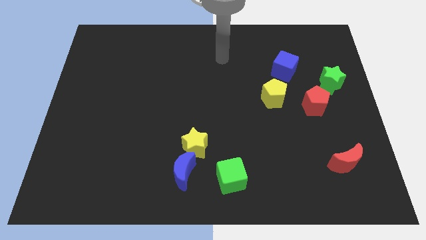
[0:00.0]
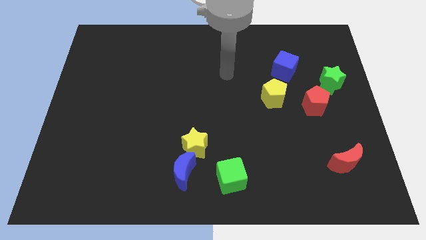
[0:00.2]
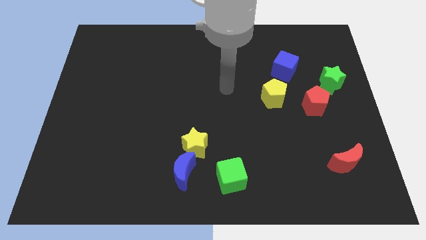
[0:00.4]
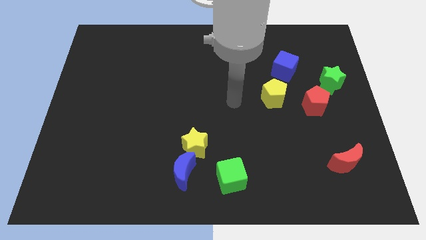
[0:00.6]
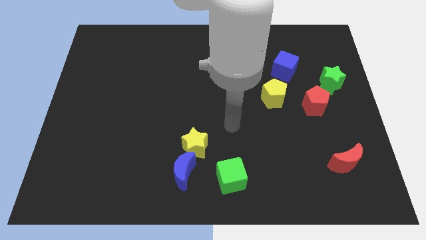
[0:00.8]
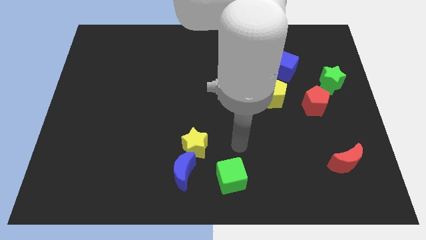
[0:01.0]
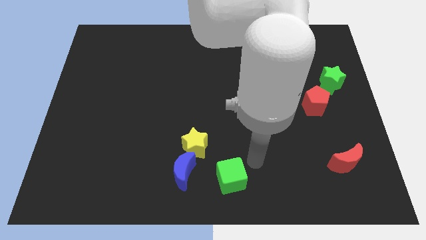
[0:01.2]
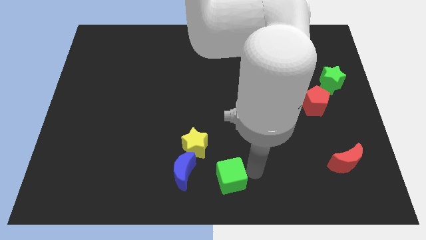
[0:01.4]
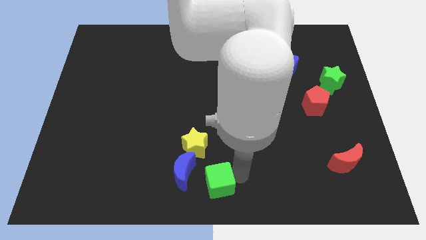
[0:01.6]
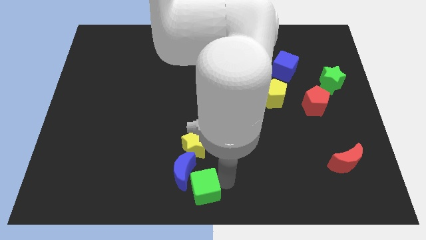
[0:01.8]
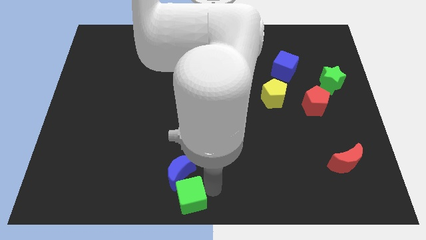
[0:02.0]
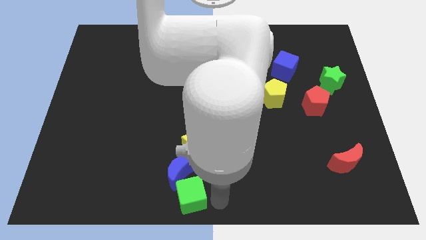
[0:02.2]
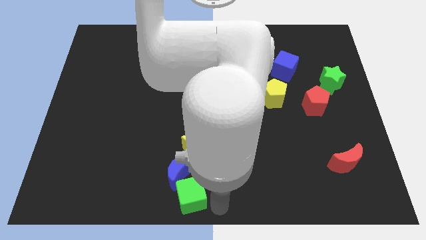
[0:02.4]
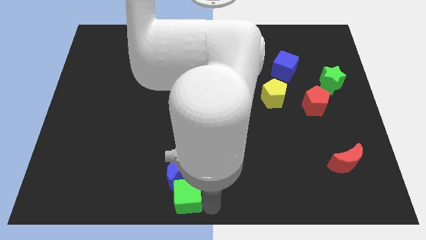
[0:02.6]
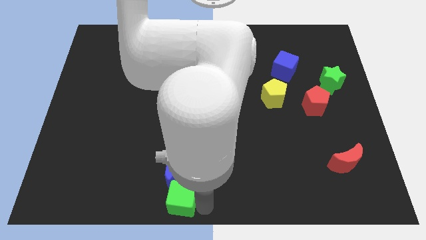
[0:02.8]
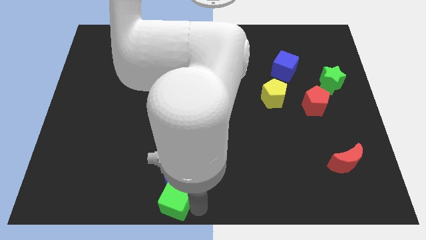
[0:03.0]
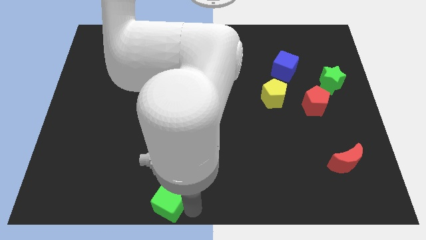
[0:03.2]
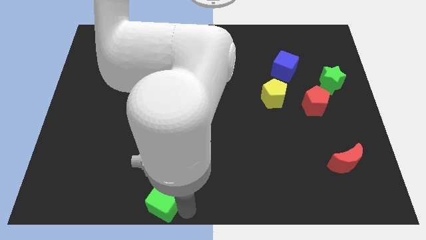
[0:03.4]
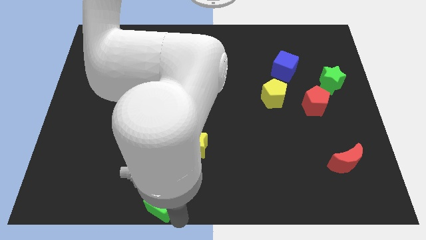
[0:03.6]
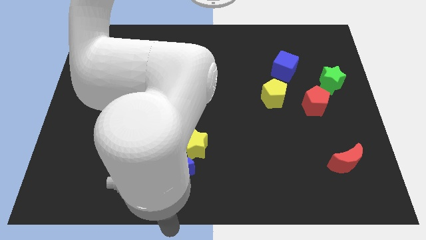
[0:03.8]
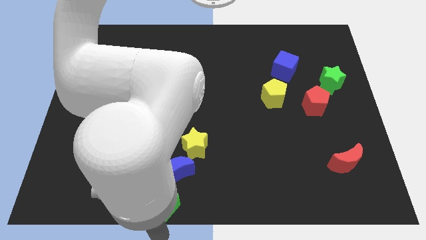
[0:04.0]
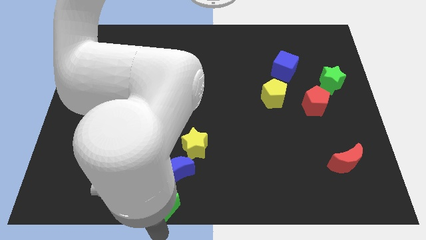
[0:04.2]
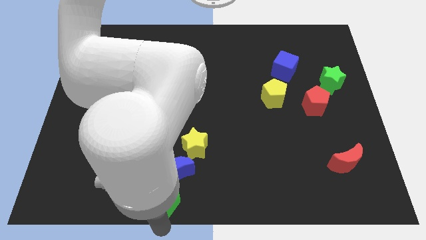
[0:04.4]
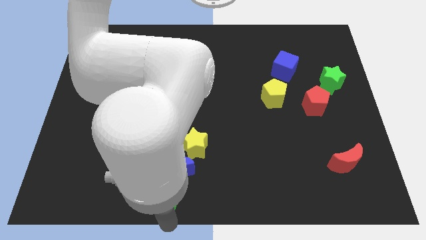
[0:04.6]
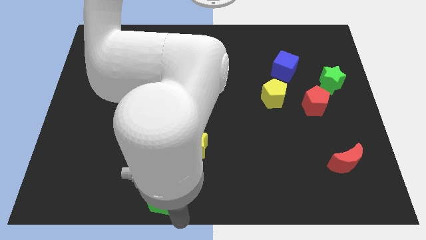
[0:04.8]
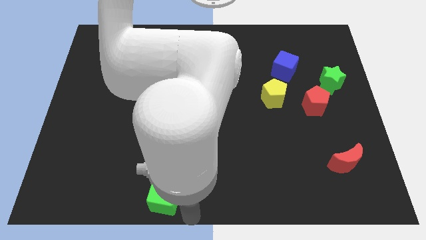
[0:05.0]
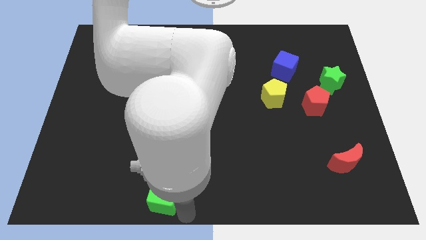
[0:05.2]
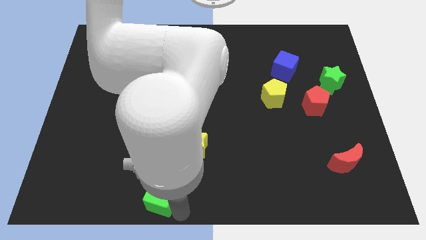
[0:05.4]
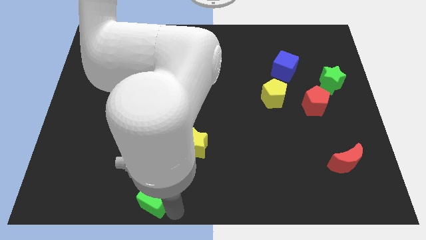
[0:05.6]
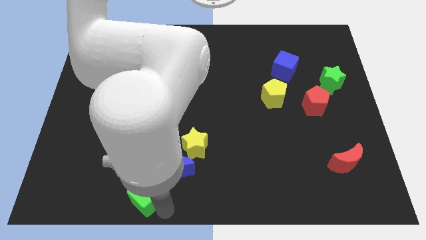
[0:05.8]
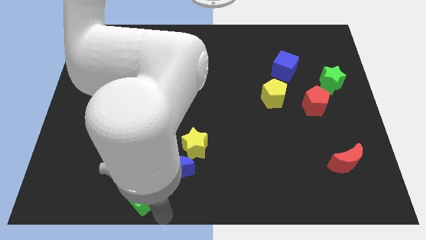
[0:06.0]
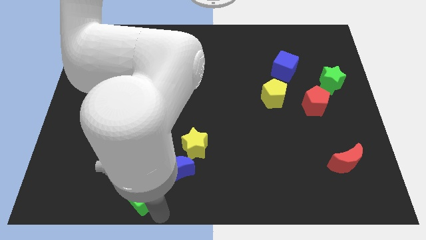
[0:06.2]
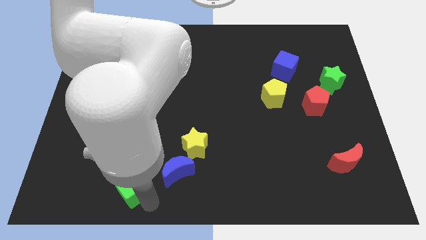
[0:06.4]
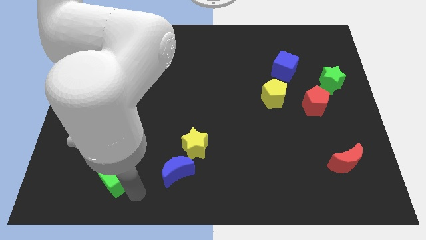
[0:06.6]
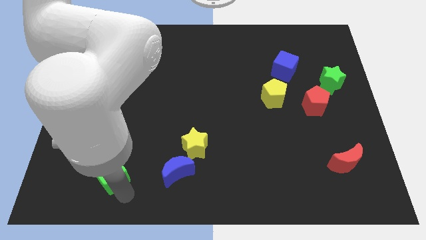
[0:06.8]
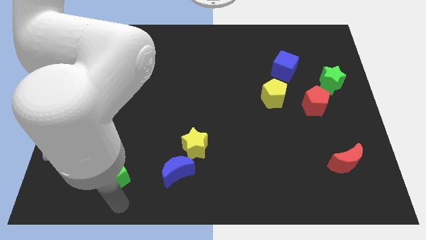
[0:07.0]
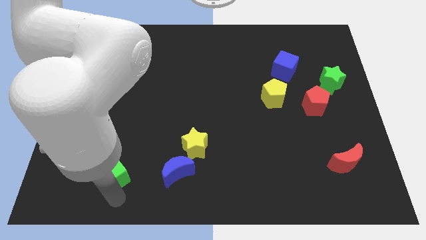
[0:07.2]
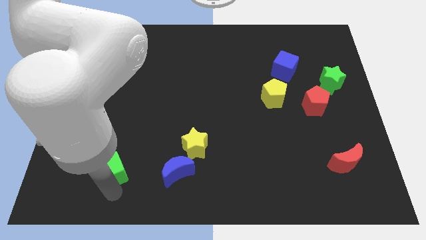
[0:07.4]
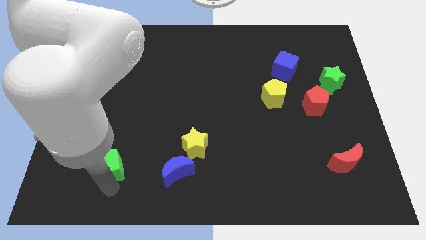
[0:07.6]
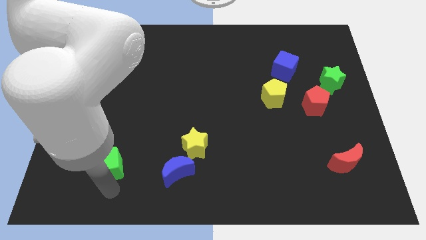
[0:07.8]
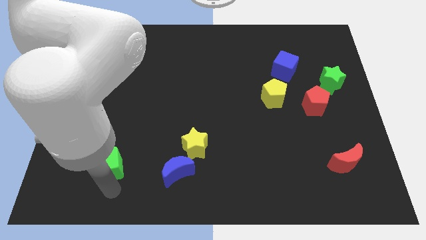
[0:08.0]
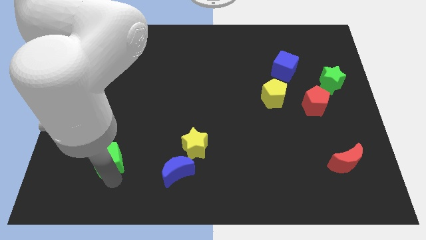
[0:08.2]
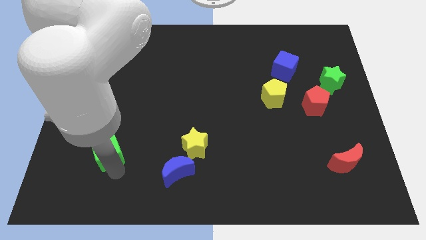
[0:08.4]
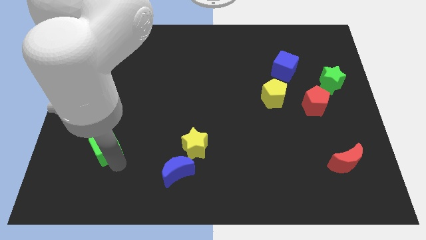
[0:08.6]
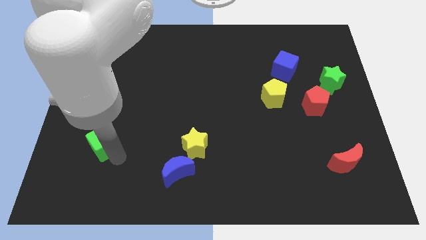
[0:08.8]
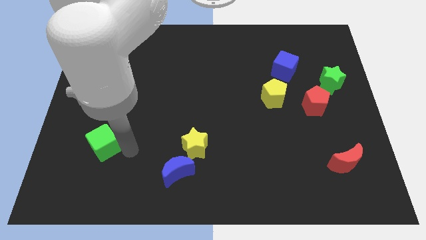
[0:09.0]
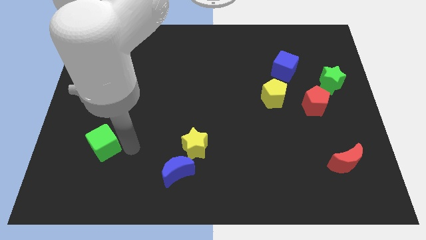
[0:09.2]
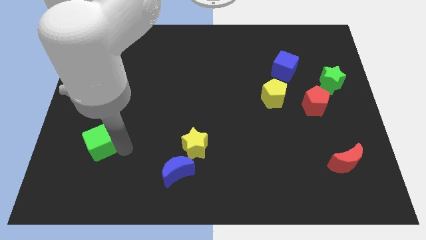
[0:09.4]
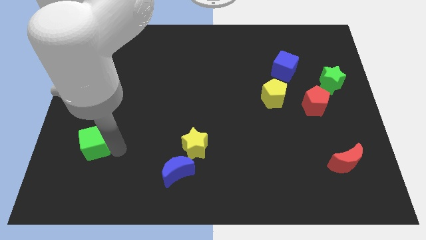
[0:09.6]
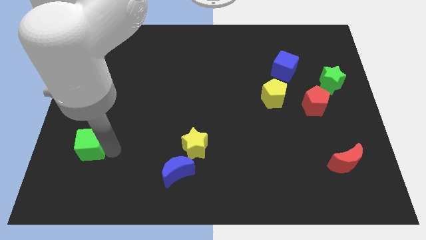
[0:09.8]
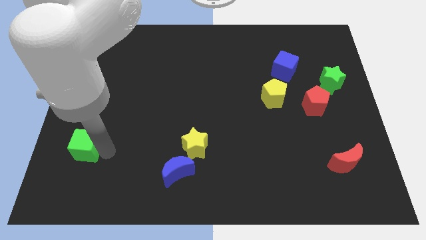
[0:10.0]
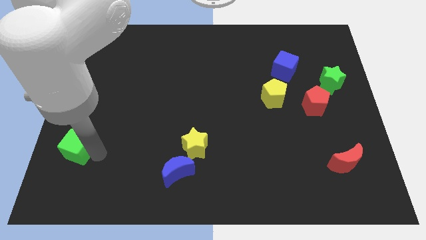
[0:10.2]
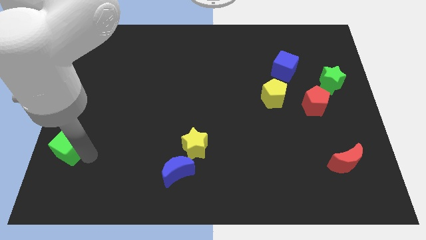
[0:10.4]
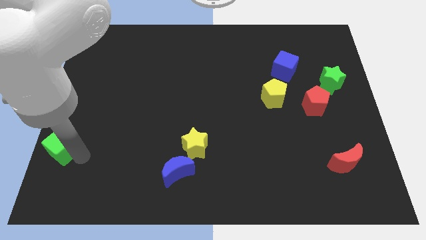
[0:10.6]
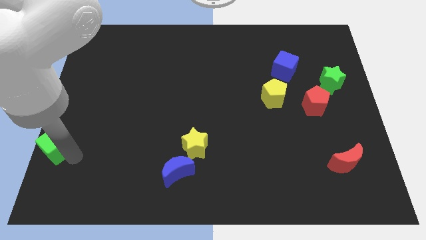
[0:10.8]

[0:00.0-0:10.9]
slide the green cube to the left side

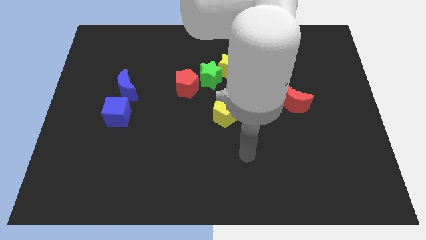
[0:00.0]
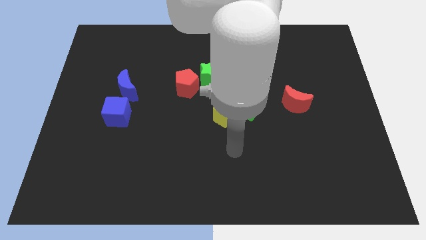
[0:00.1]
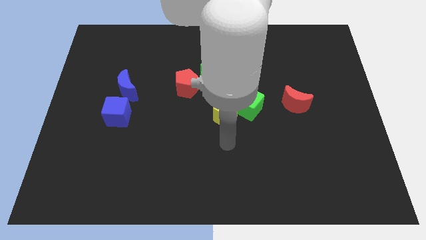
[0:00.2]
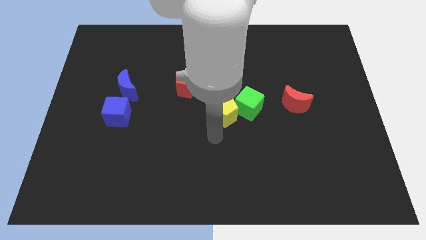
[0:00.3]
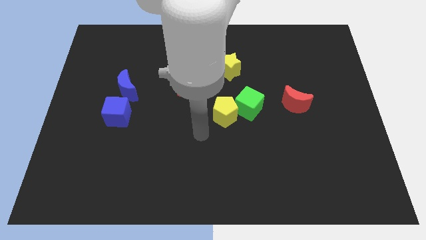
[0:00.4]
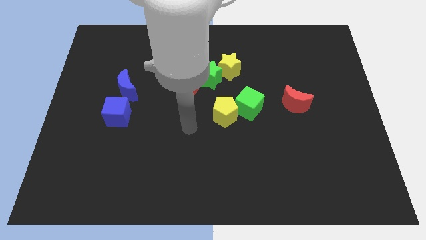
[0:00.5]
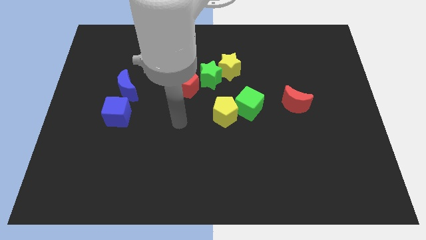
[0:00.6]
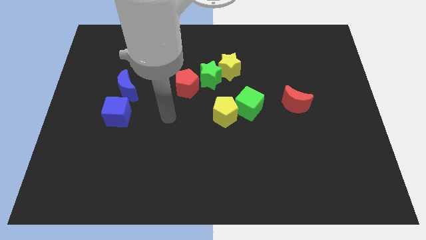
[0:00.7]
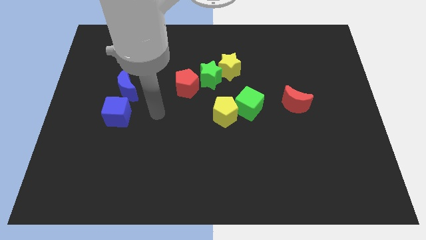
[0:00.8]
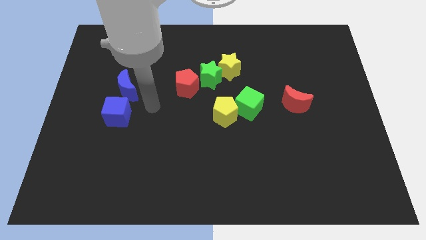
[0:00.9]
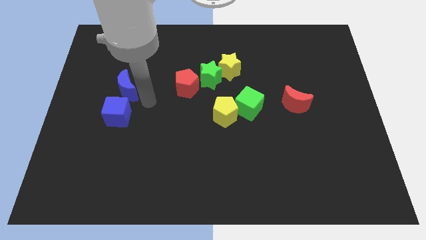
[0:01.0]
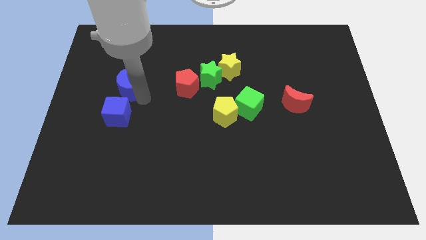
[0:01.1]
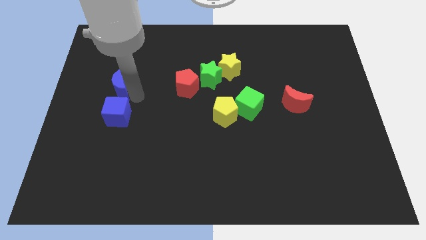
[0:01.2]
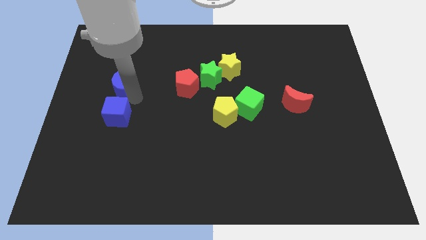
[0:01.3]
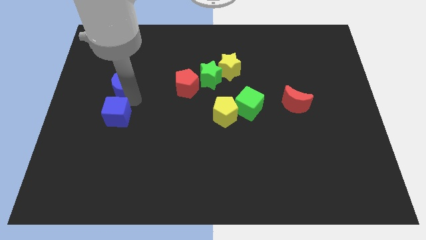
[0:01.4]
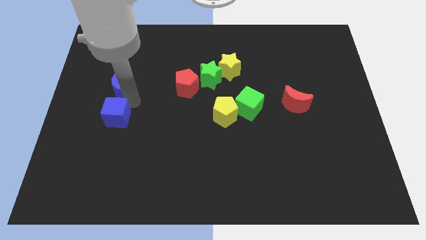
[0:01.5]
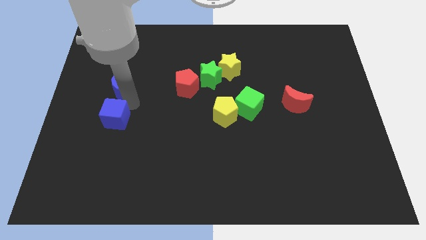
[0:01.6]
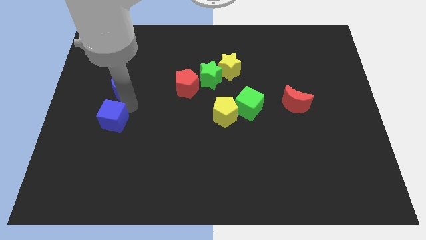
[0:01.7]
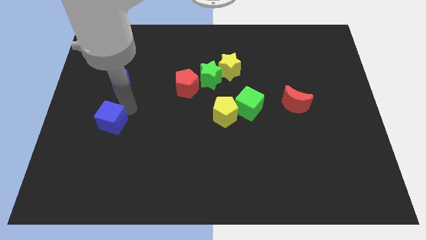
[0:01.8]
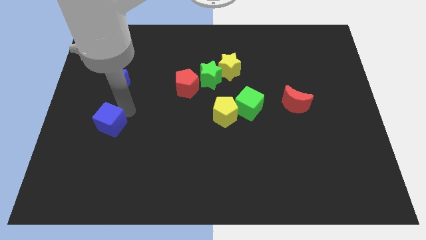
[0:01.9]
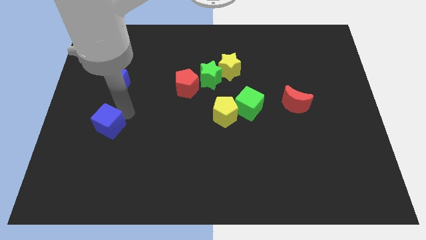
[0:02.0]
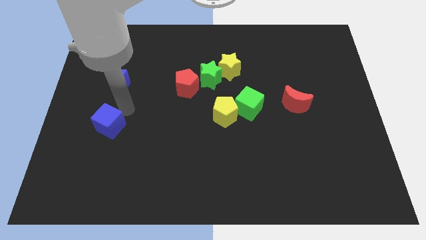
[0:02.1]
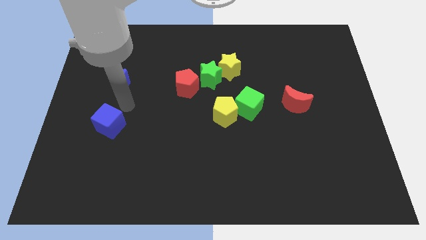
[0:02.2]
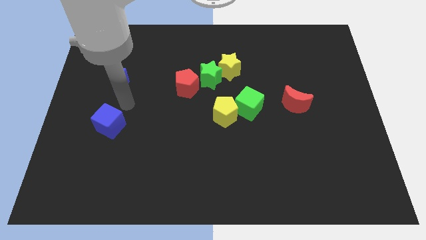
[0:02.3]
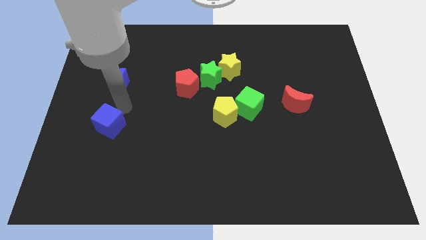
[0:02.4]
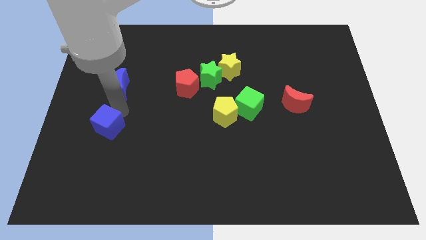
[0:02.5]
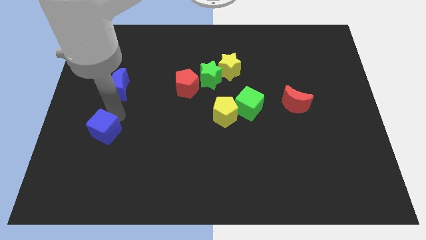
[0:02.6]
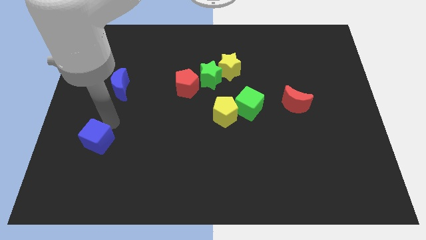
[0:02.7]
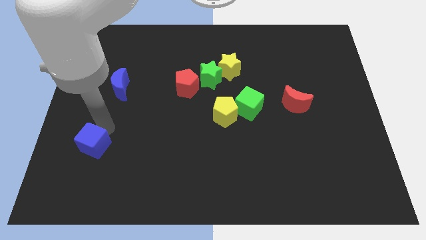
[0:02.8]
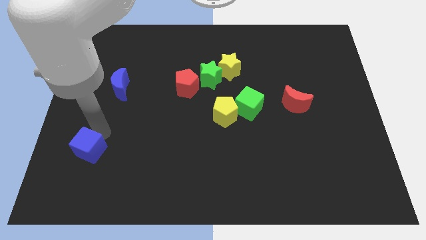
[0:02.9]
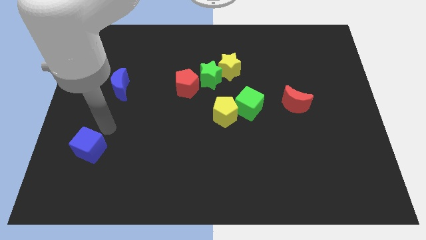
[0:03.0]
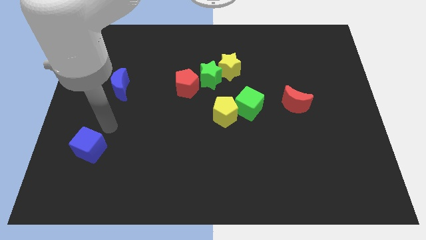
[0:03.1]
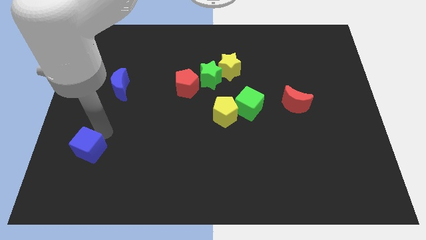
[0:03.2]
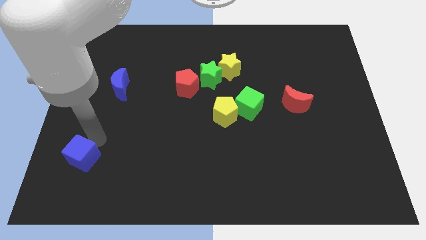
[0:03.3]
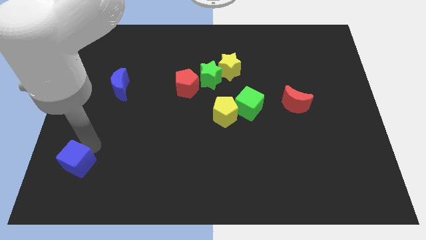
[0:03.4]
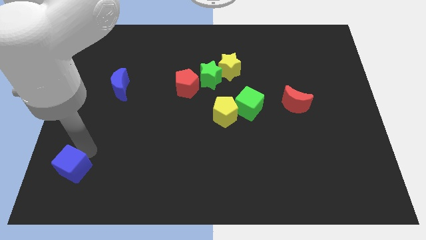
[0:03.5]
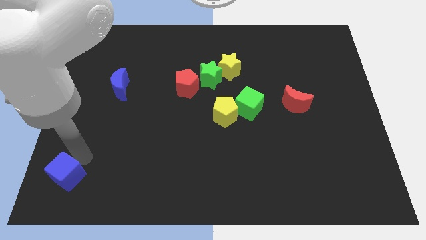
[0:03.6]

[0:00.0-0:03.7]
move the blue cube to the lower left corner
